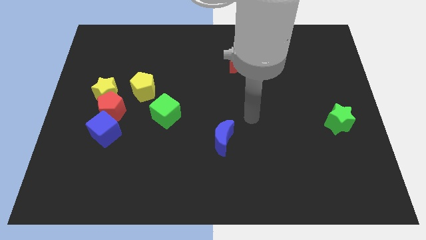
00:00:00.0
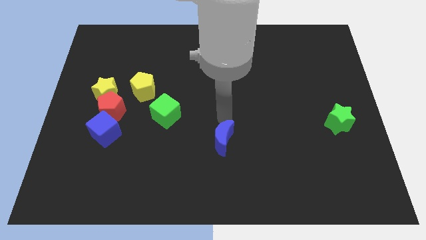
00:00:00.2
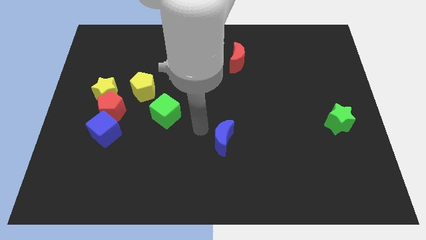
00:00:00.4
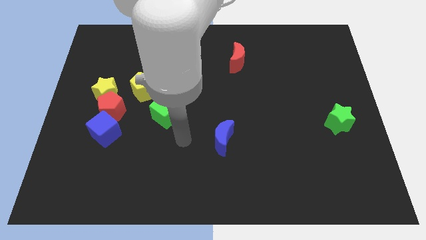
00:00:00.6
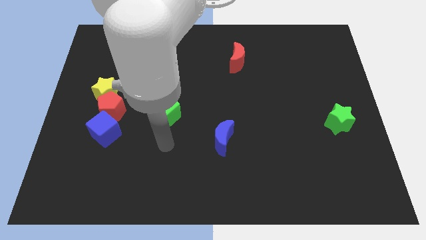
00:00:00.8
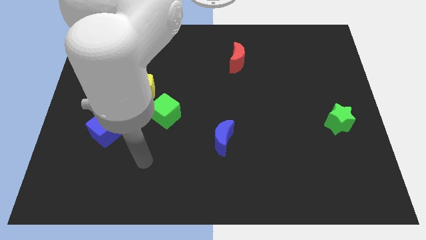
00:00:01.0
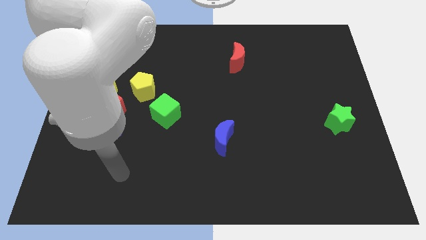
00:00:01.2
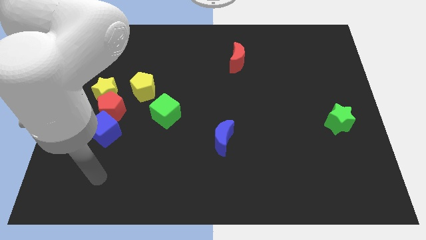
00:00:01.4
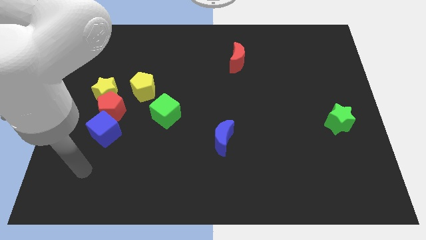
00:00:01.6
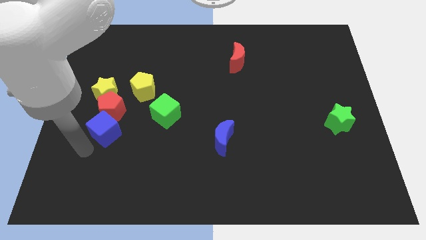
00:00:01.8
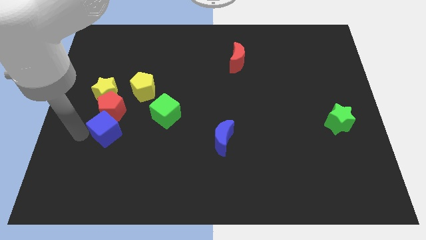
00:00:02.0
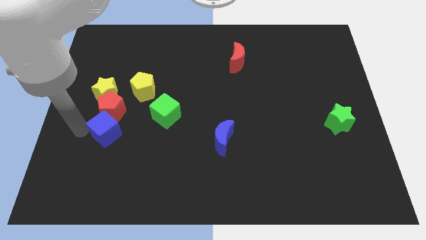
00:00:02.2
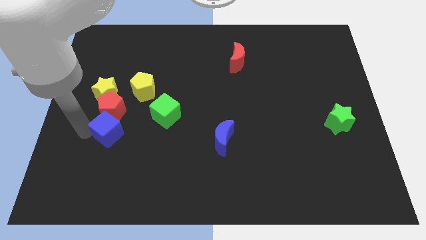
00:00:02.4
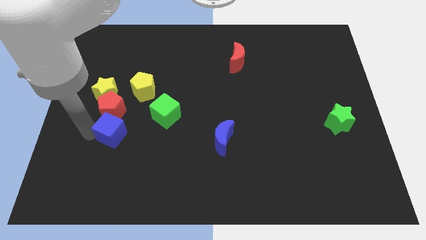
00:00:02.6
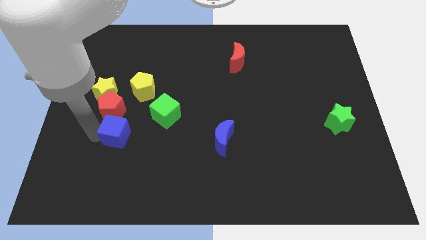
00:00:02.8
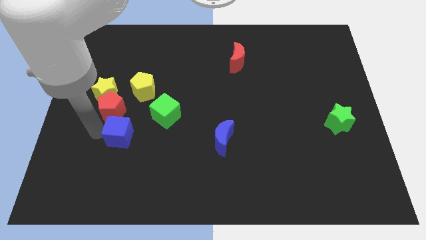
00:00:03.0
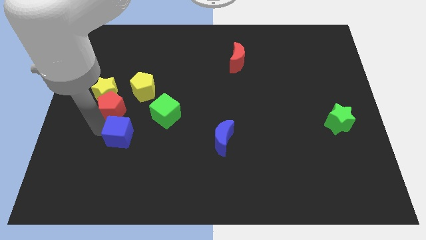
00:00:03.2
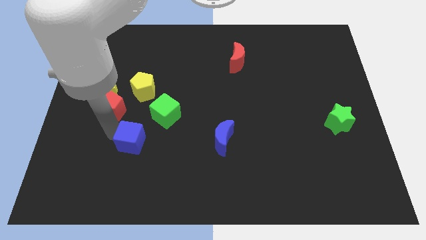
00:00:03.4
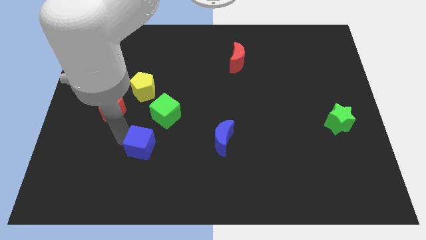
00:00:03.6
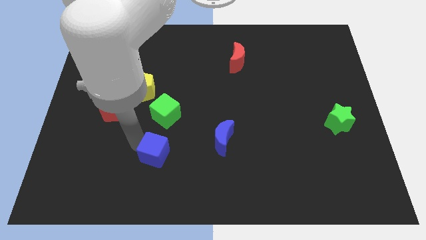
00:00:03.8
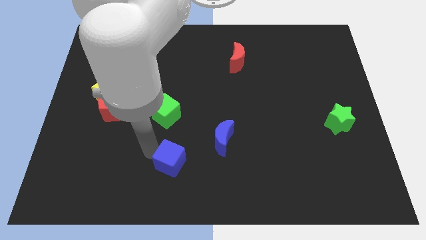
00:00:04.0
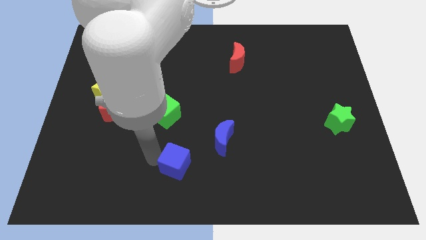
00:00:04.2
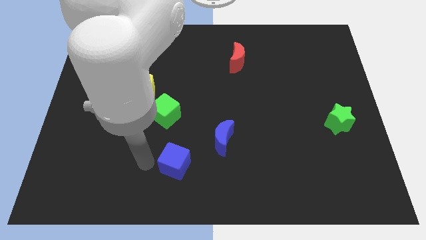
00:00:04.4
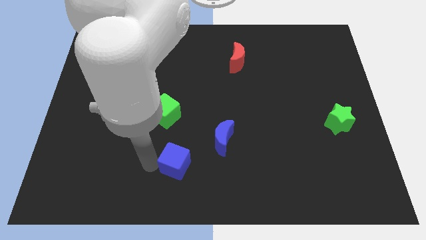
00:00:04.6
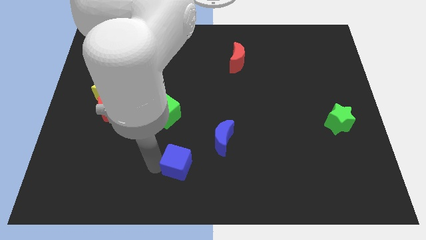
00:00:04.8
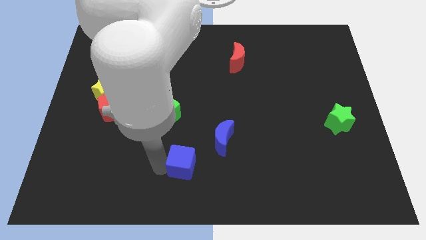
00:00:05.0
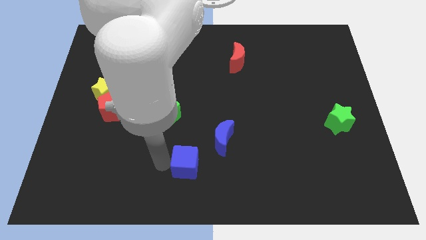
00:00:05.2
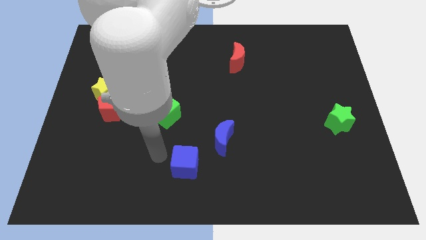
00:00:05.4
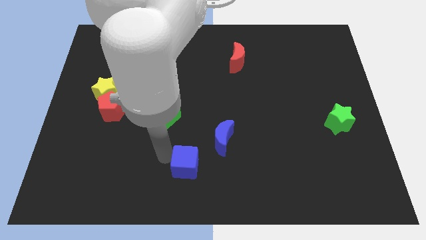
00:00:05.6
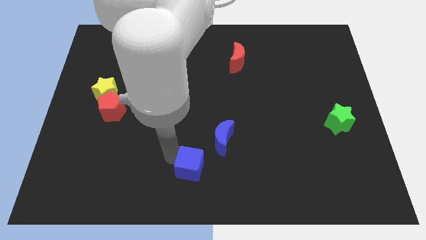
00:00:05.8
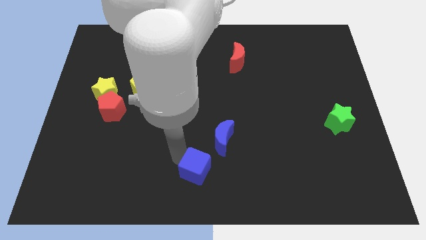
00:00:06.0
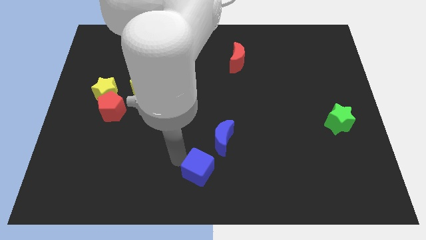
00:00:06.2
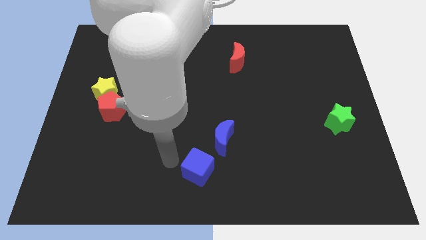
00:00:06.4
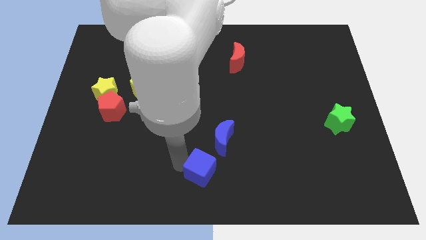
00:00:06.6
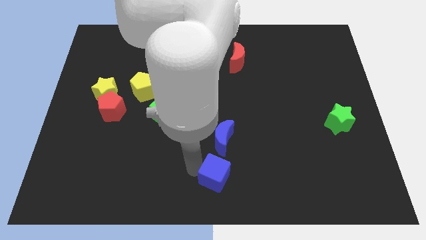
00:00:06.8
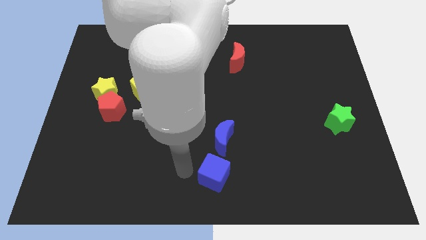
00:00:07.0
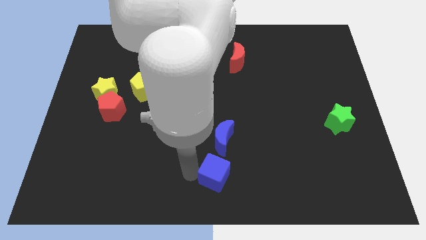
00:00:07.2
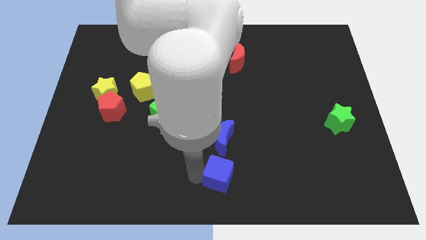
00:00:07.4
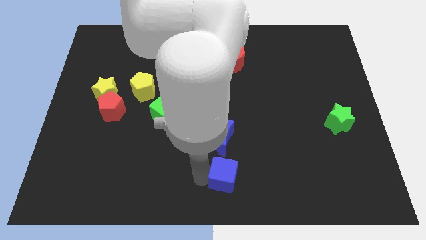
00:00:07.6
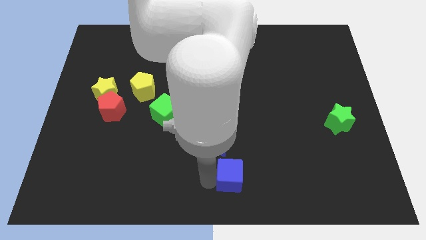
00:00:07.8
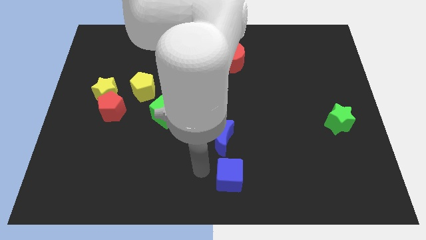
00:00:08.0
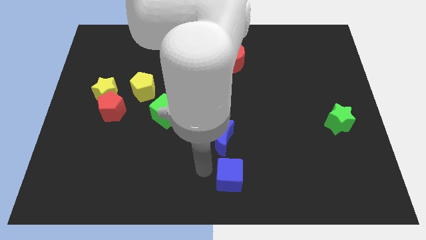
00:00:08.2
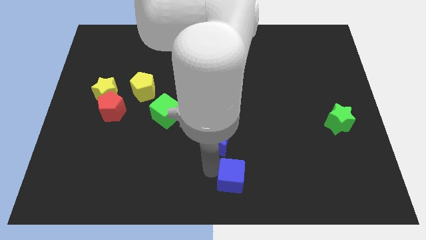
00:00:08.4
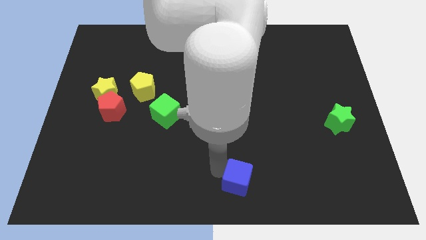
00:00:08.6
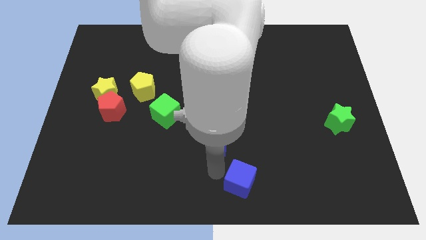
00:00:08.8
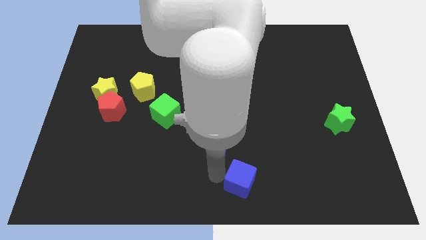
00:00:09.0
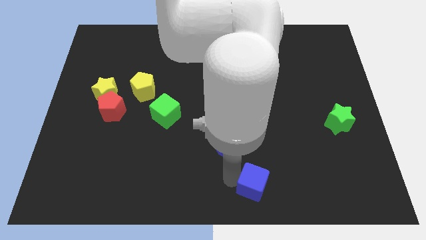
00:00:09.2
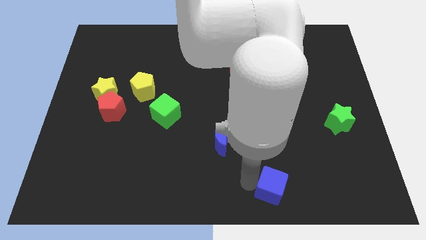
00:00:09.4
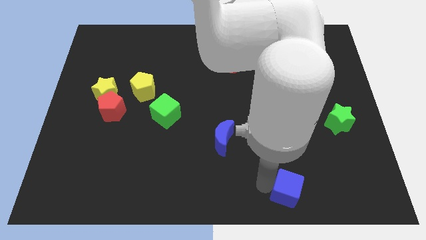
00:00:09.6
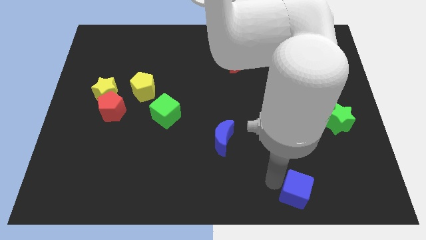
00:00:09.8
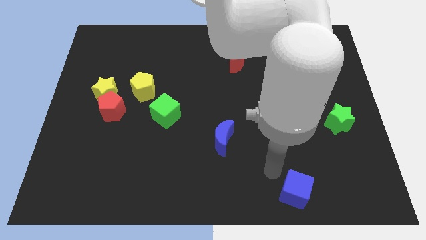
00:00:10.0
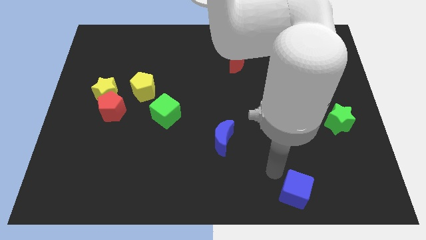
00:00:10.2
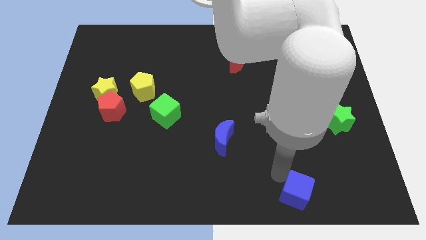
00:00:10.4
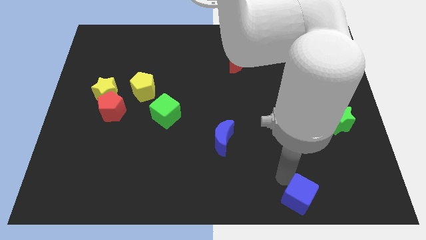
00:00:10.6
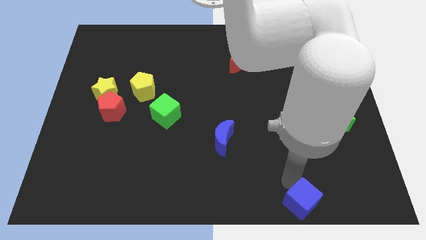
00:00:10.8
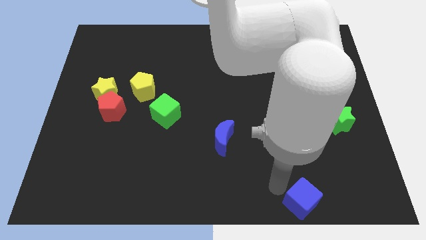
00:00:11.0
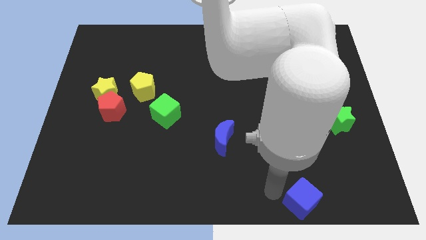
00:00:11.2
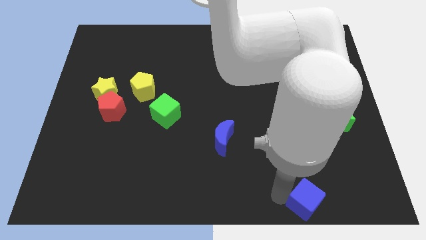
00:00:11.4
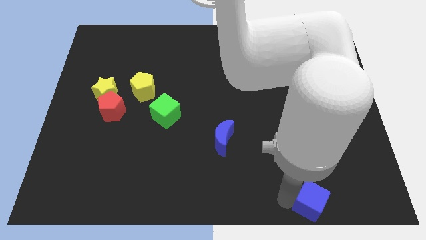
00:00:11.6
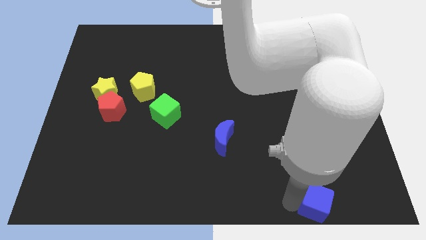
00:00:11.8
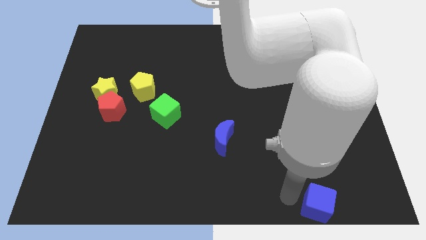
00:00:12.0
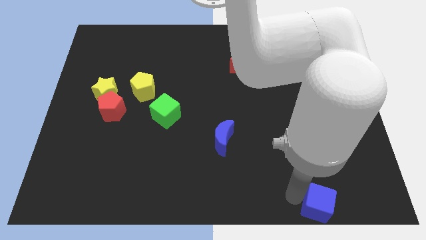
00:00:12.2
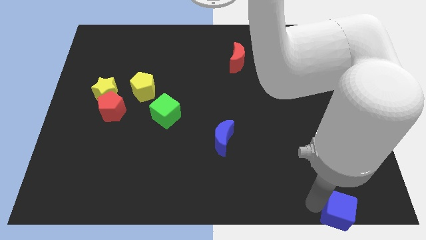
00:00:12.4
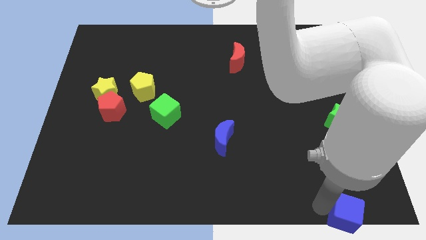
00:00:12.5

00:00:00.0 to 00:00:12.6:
push the blue cube to the lower right corner

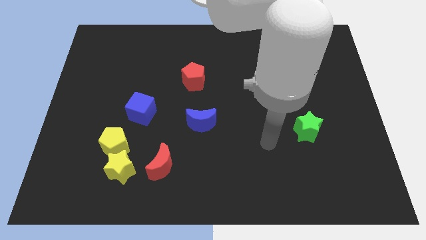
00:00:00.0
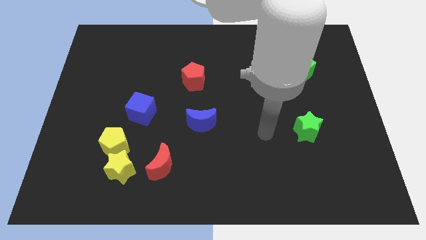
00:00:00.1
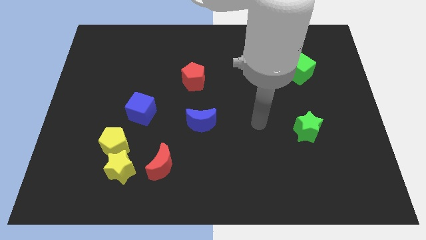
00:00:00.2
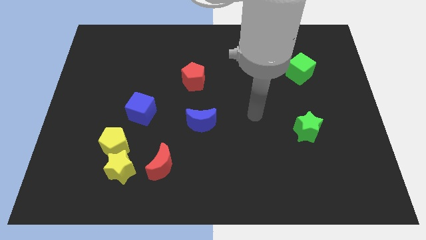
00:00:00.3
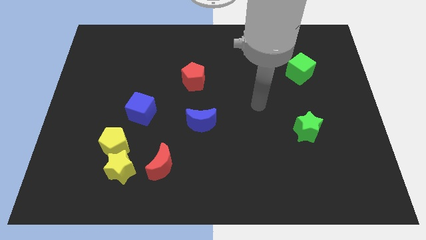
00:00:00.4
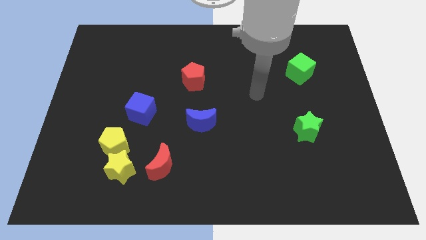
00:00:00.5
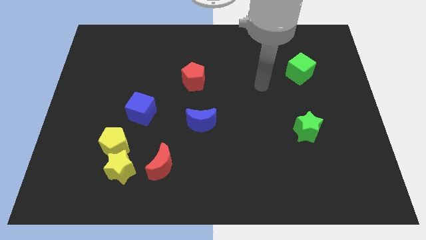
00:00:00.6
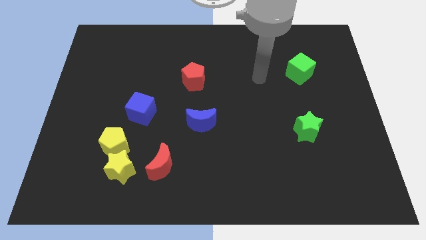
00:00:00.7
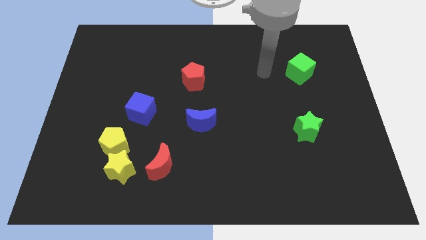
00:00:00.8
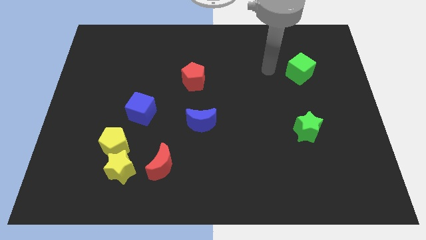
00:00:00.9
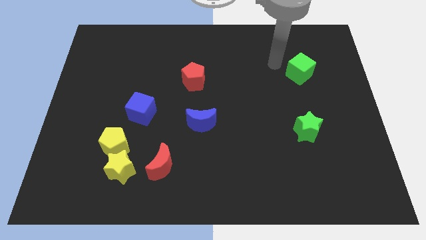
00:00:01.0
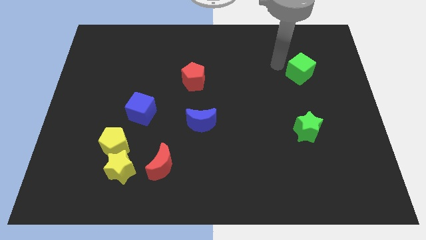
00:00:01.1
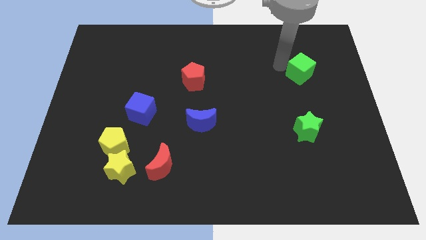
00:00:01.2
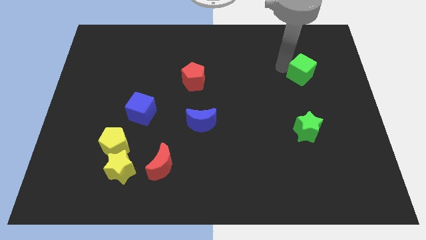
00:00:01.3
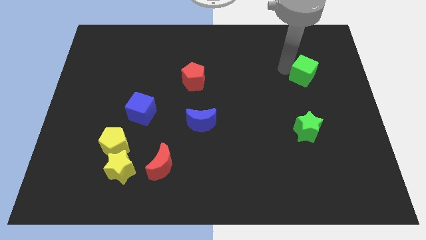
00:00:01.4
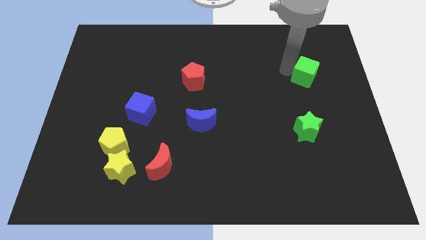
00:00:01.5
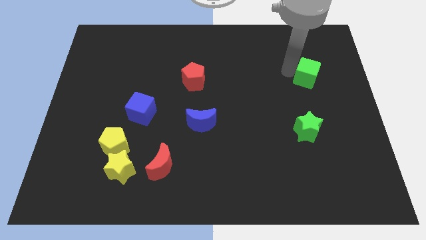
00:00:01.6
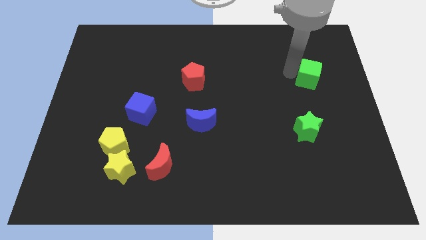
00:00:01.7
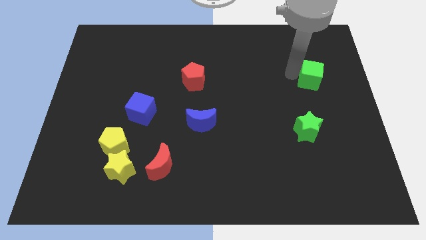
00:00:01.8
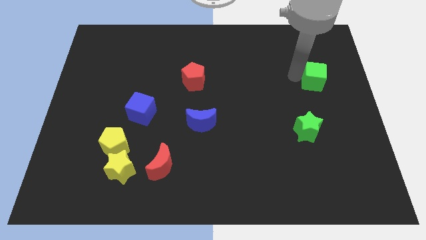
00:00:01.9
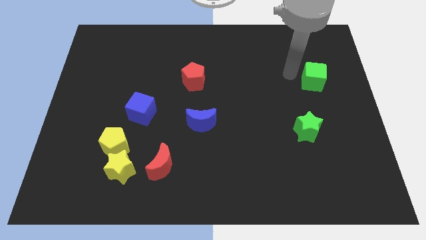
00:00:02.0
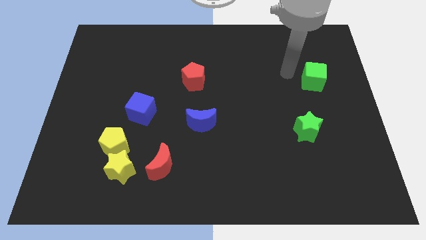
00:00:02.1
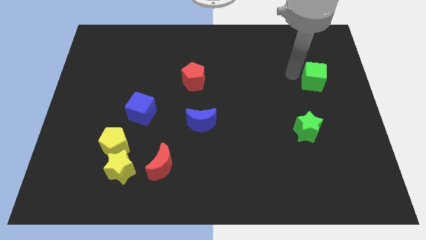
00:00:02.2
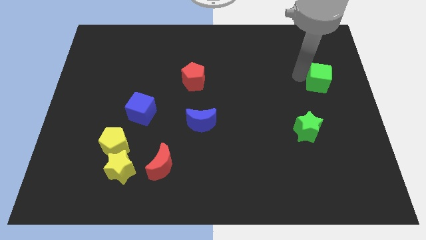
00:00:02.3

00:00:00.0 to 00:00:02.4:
move the green cube to the right side of the board
